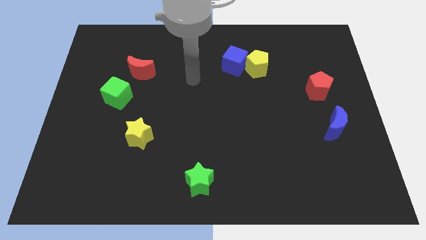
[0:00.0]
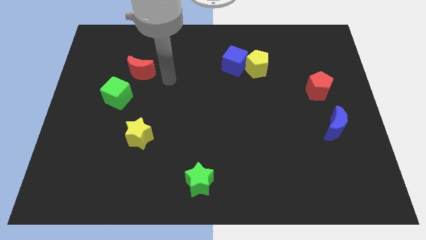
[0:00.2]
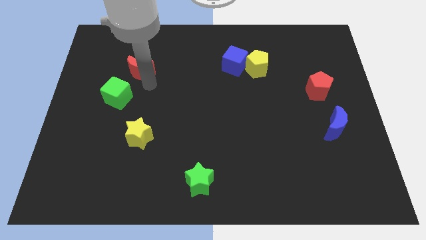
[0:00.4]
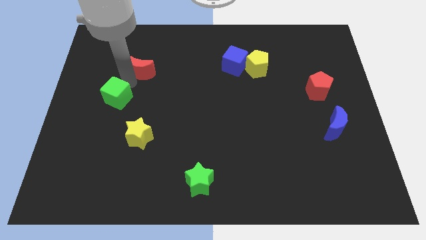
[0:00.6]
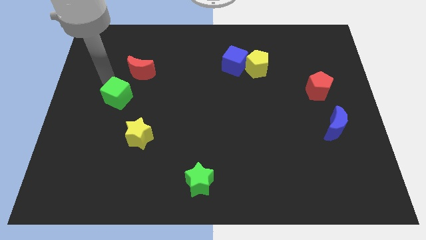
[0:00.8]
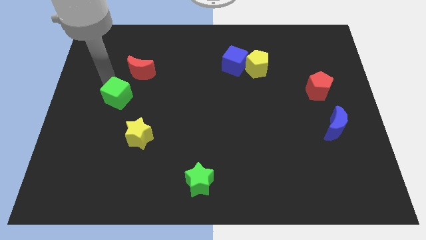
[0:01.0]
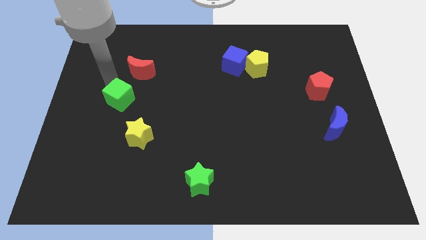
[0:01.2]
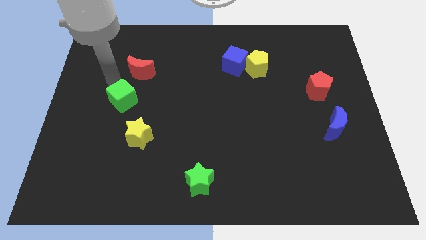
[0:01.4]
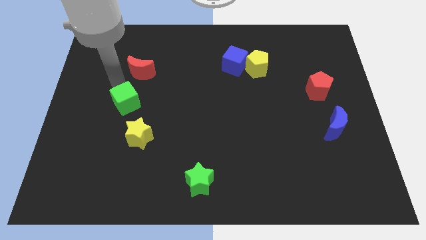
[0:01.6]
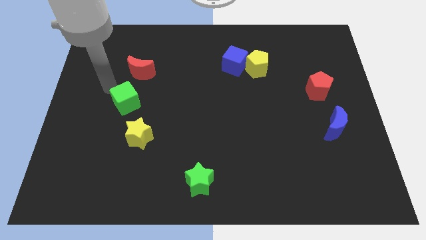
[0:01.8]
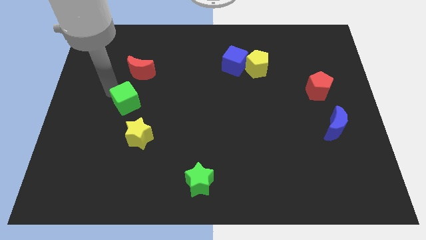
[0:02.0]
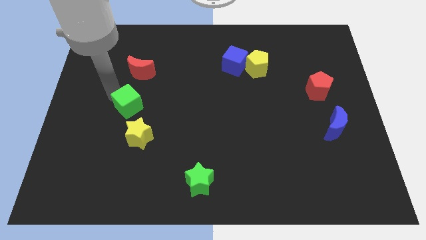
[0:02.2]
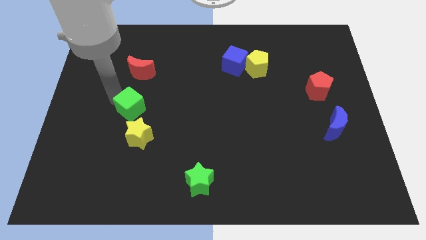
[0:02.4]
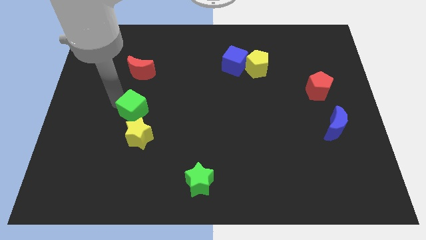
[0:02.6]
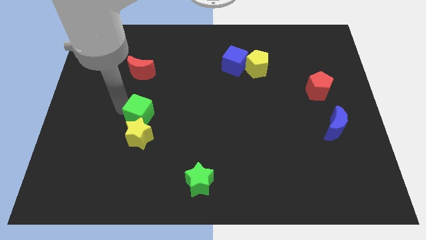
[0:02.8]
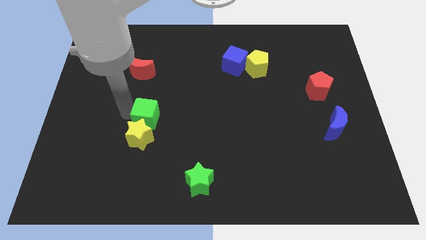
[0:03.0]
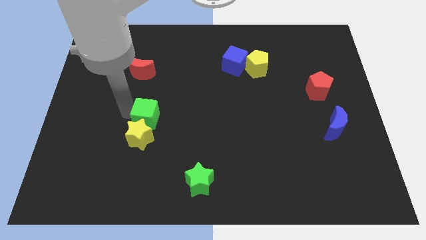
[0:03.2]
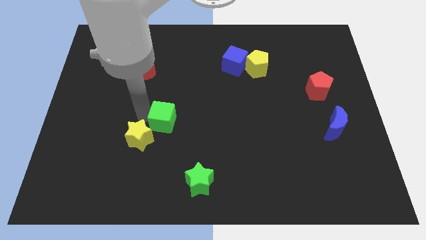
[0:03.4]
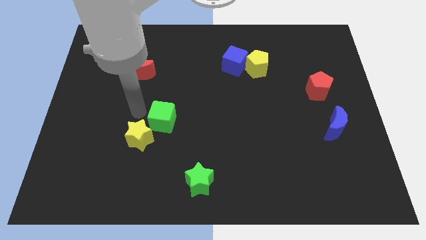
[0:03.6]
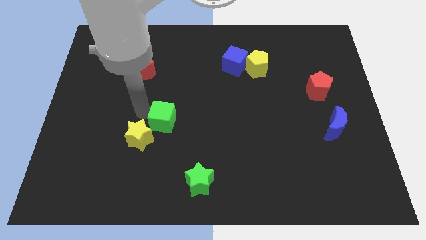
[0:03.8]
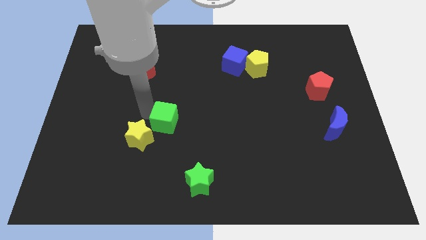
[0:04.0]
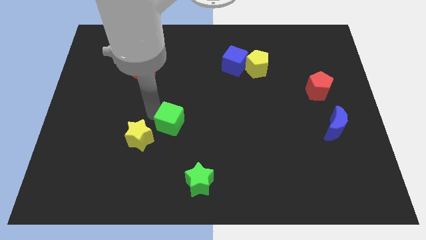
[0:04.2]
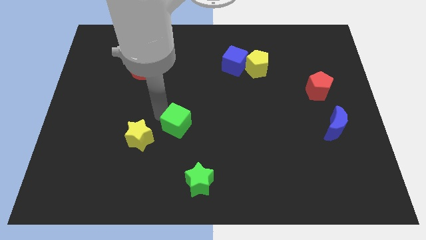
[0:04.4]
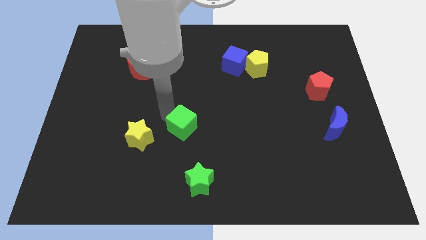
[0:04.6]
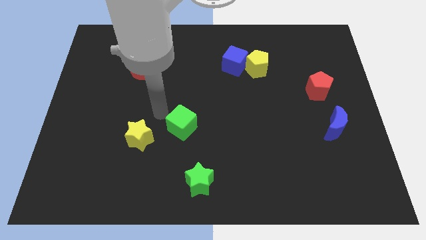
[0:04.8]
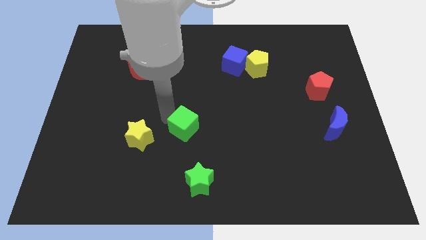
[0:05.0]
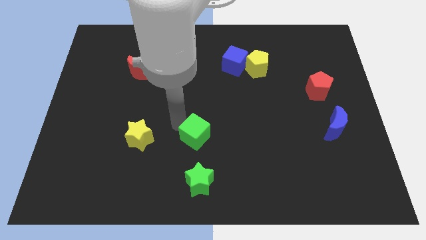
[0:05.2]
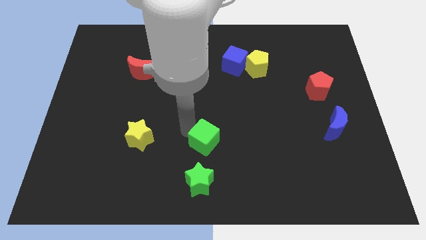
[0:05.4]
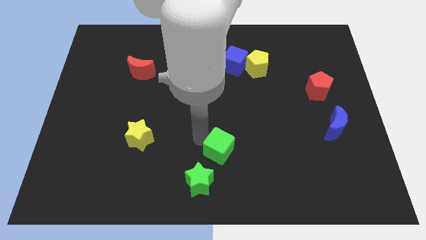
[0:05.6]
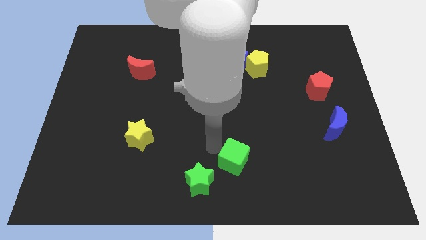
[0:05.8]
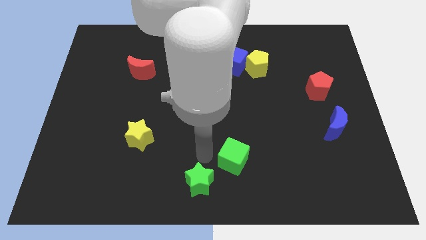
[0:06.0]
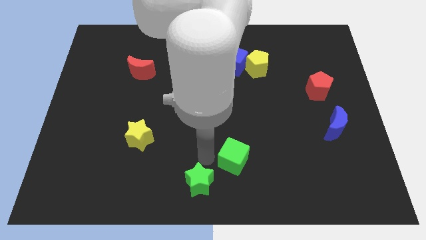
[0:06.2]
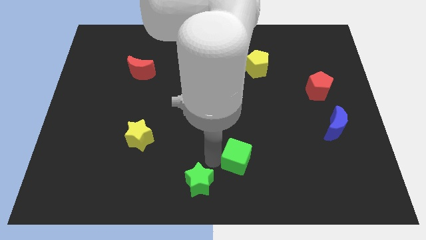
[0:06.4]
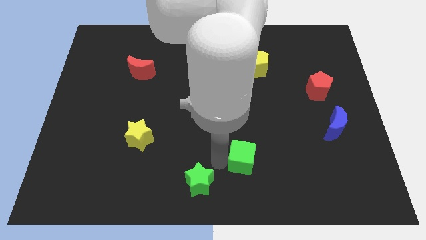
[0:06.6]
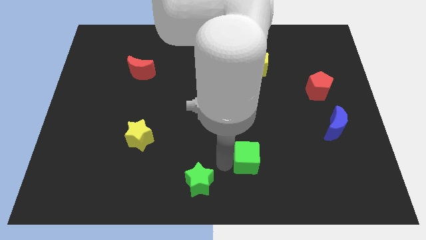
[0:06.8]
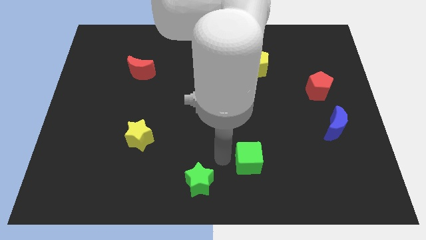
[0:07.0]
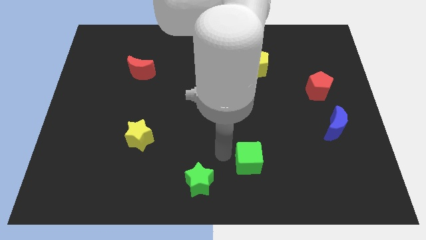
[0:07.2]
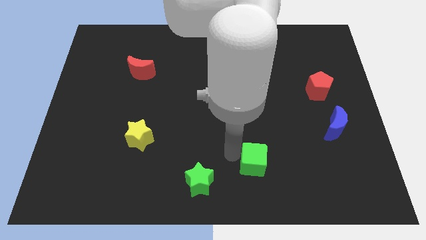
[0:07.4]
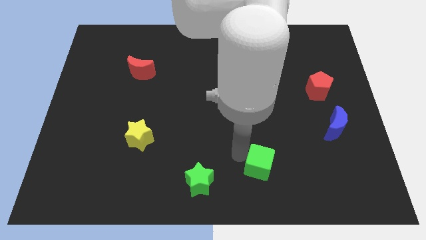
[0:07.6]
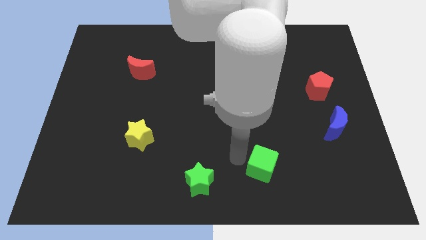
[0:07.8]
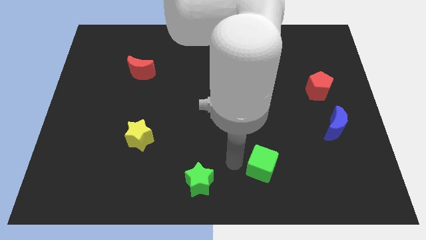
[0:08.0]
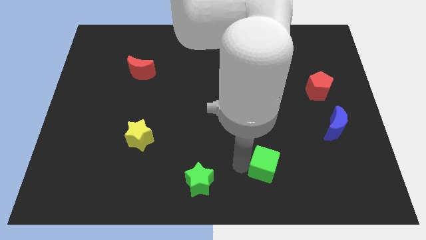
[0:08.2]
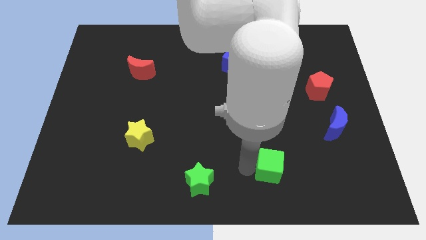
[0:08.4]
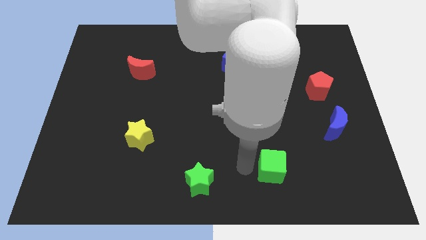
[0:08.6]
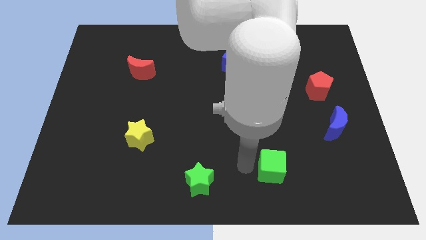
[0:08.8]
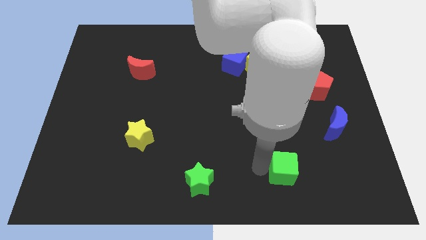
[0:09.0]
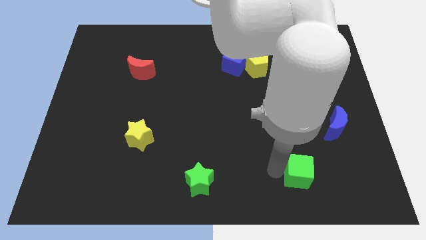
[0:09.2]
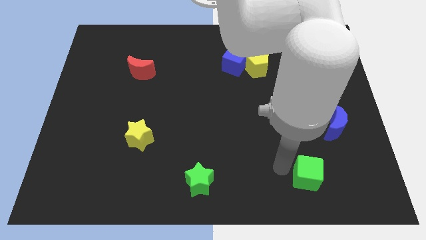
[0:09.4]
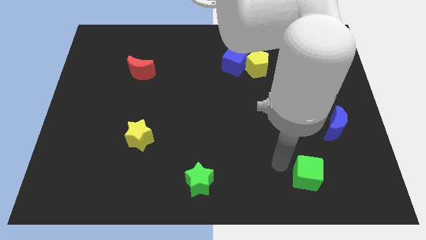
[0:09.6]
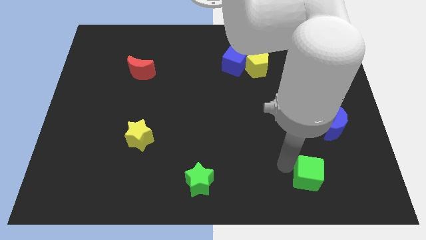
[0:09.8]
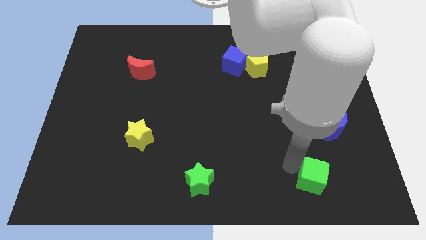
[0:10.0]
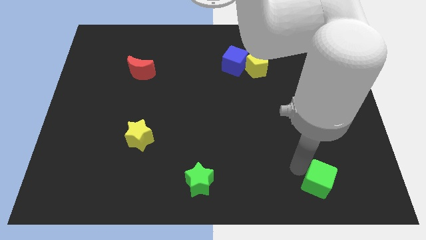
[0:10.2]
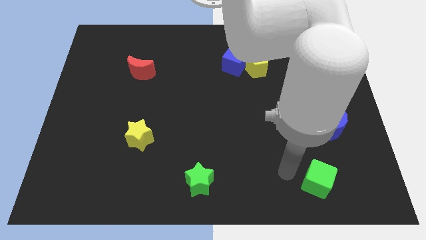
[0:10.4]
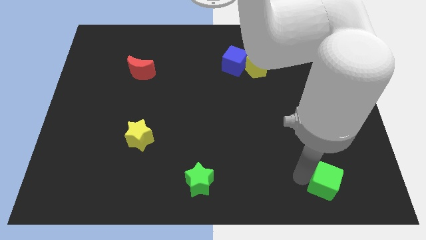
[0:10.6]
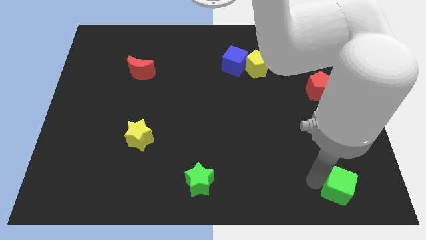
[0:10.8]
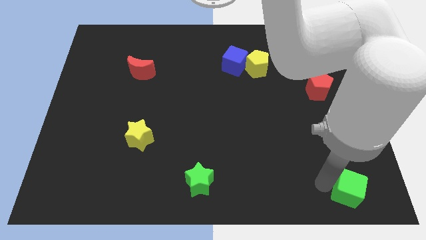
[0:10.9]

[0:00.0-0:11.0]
move the green cube to the bottom right corner
